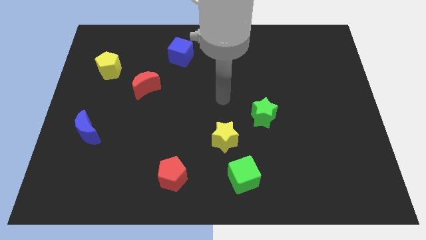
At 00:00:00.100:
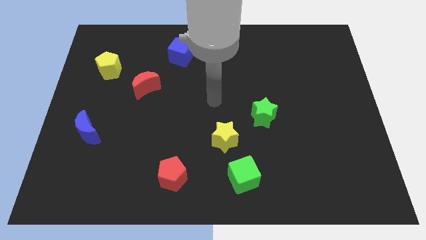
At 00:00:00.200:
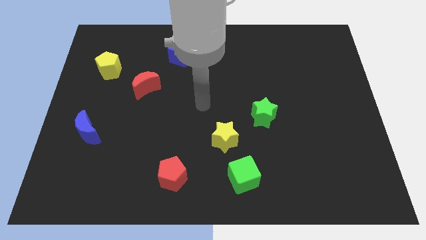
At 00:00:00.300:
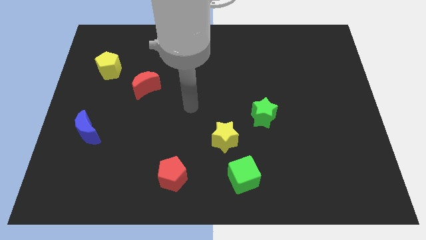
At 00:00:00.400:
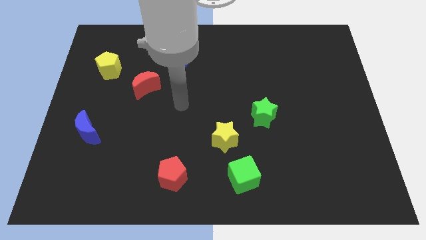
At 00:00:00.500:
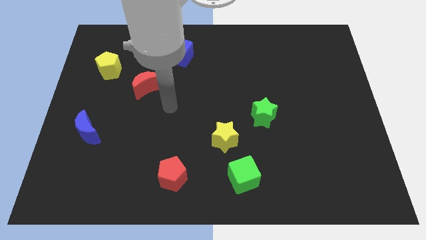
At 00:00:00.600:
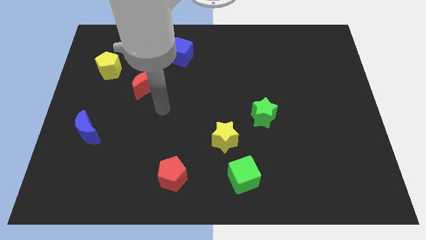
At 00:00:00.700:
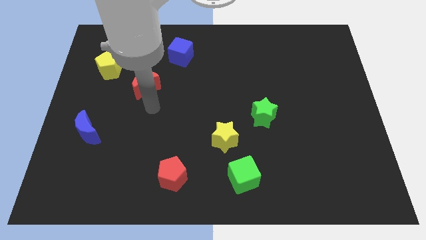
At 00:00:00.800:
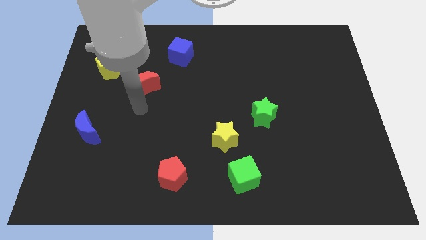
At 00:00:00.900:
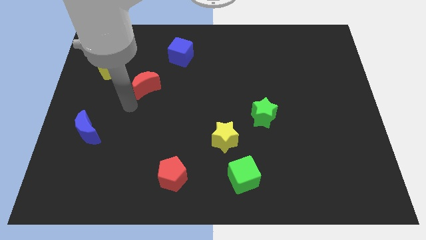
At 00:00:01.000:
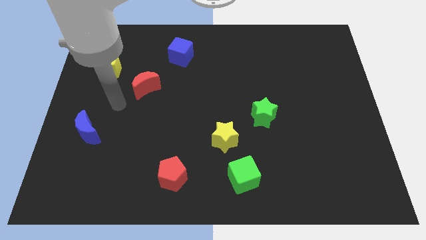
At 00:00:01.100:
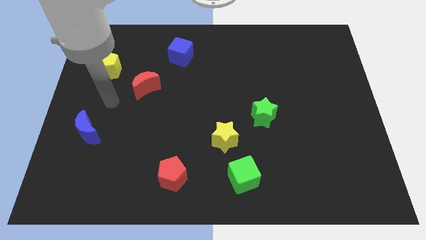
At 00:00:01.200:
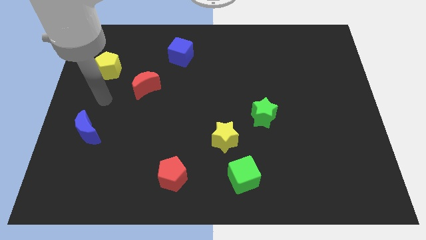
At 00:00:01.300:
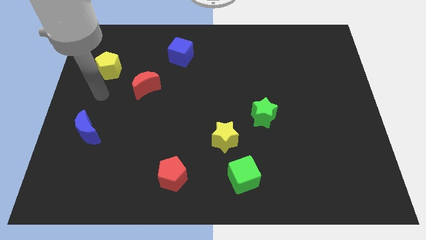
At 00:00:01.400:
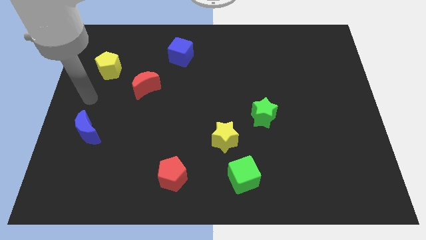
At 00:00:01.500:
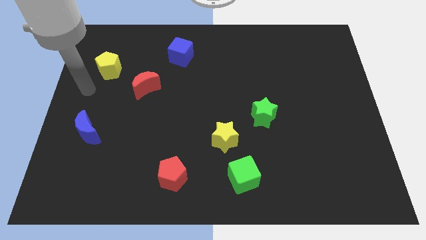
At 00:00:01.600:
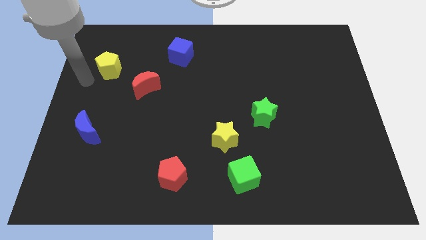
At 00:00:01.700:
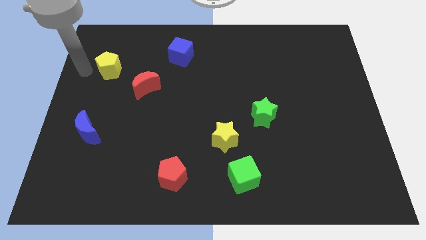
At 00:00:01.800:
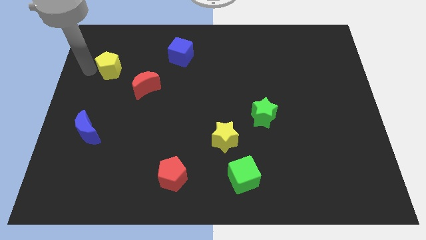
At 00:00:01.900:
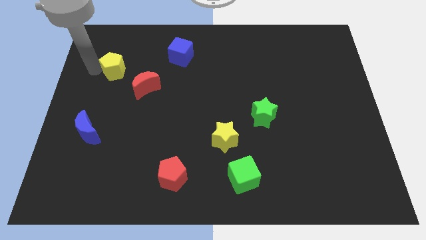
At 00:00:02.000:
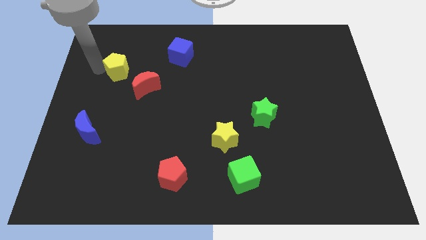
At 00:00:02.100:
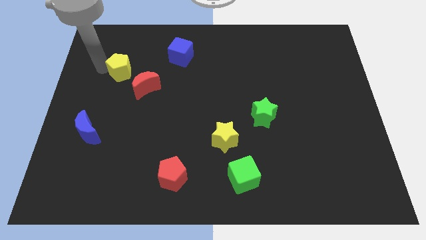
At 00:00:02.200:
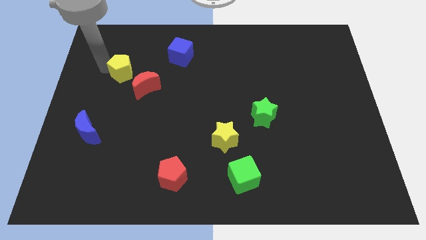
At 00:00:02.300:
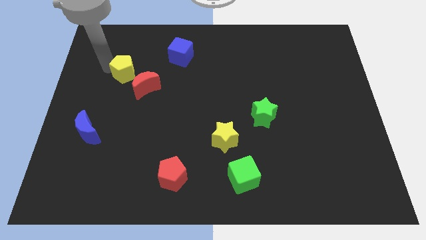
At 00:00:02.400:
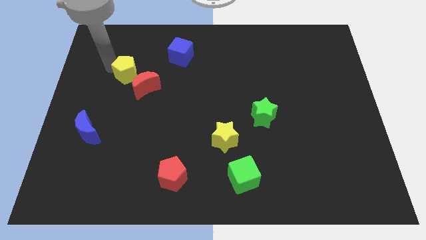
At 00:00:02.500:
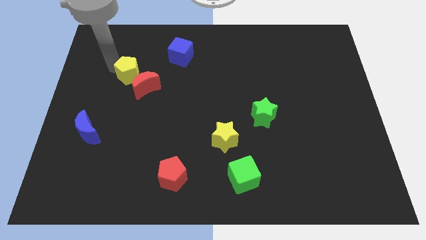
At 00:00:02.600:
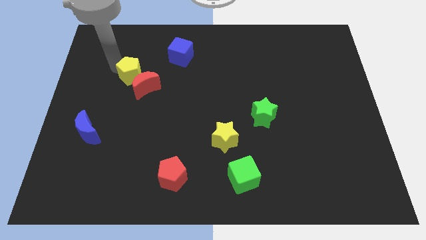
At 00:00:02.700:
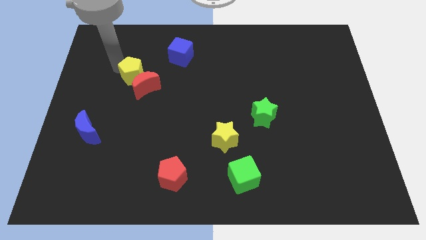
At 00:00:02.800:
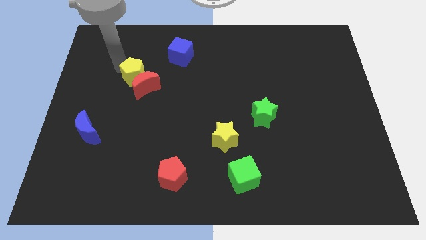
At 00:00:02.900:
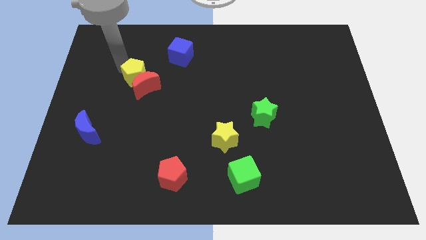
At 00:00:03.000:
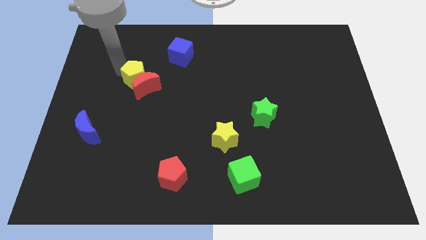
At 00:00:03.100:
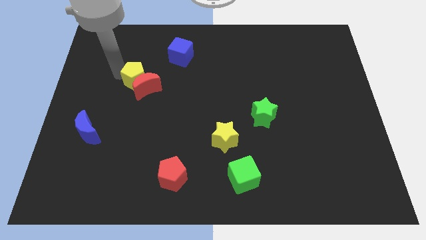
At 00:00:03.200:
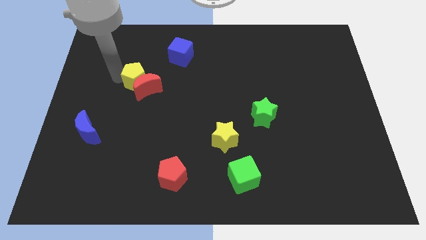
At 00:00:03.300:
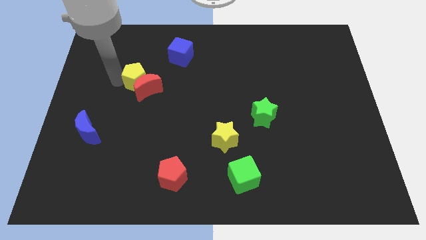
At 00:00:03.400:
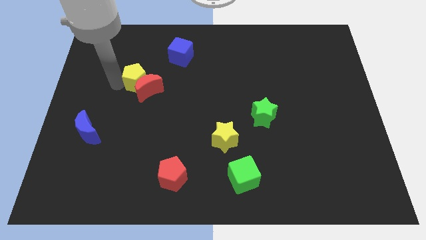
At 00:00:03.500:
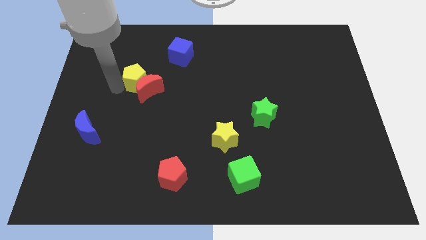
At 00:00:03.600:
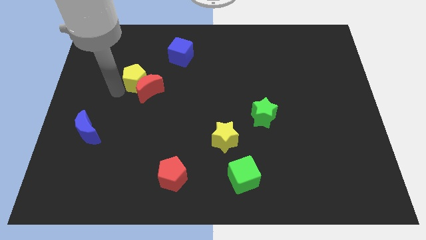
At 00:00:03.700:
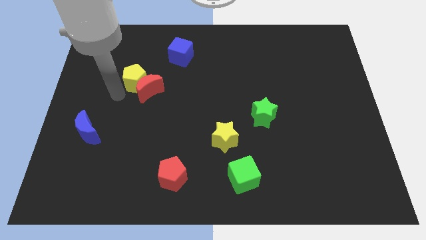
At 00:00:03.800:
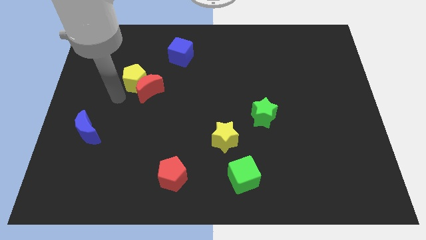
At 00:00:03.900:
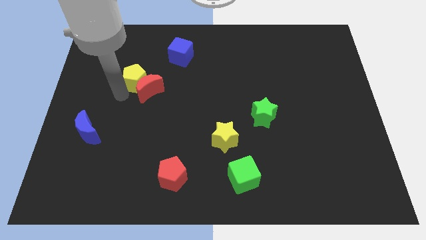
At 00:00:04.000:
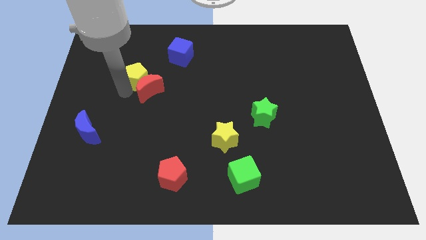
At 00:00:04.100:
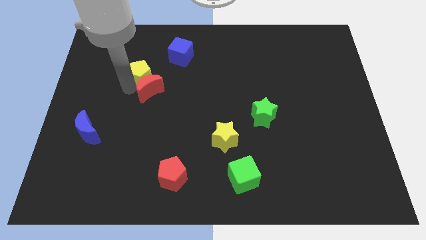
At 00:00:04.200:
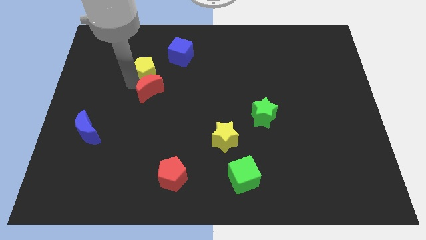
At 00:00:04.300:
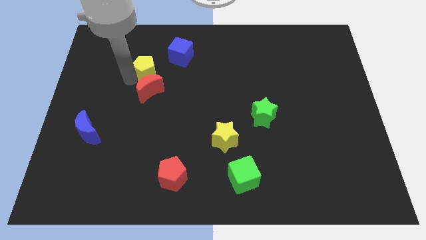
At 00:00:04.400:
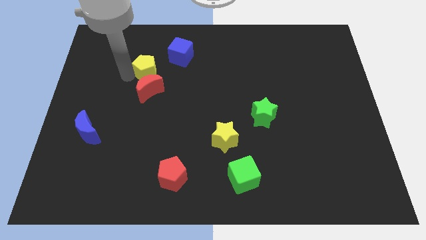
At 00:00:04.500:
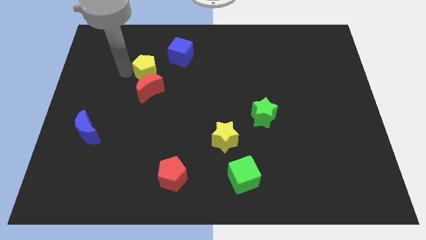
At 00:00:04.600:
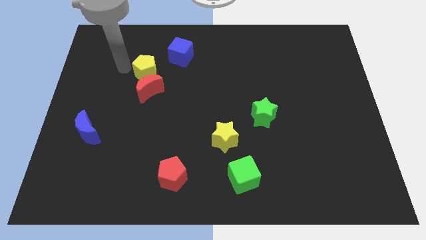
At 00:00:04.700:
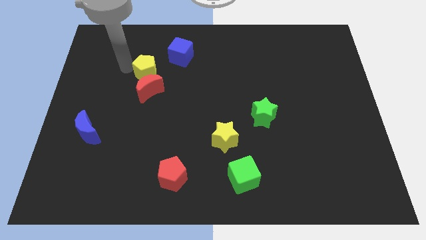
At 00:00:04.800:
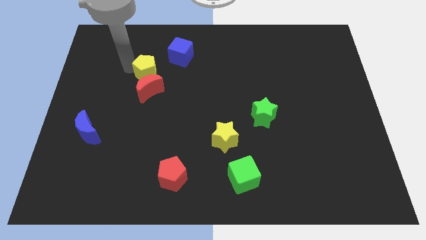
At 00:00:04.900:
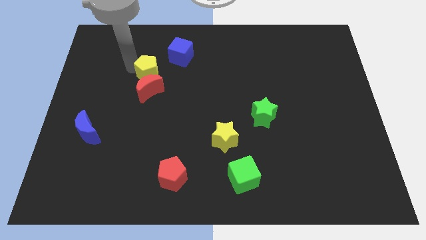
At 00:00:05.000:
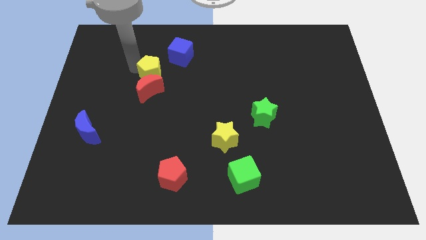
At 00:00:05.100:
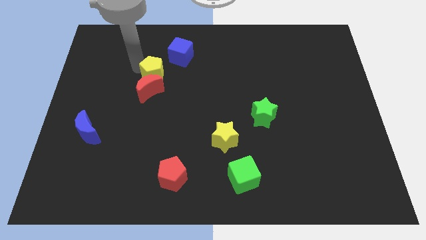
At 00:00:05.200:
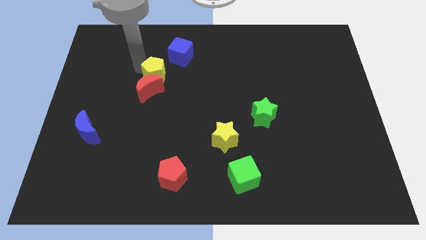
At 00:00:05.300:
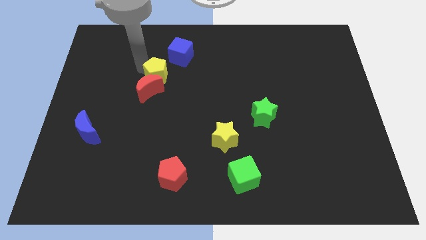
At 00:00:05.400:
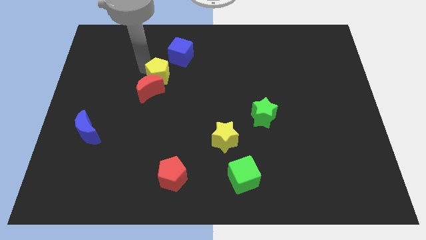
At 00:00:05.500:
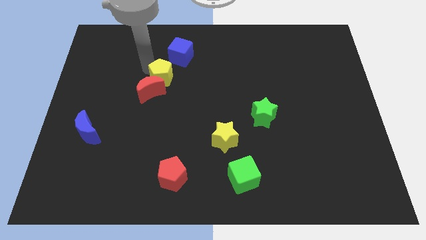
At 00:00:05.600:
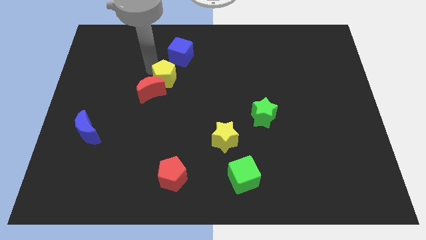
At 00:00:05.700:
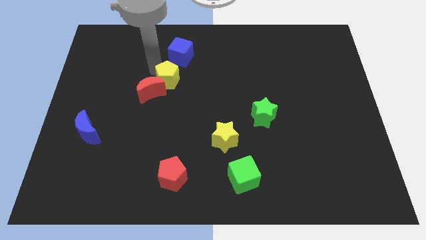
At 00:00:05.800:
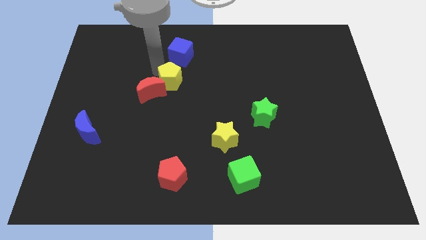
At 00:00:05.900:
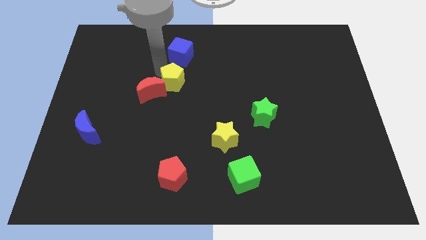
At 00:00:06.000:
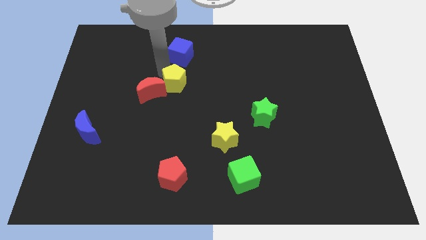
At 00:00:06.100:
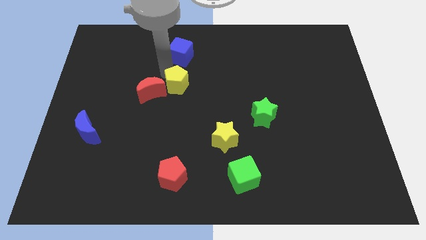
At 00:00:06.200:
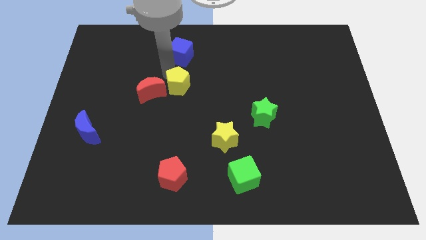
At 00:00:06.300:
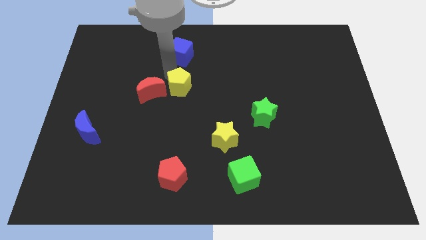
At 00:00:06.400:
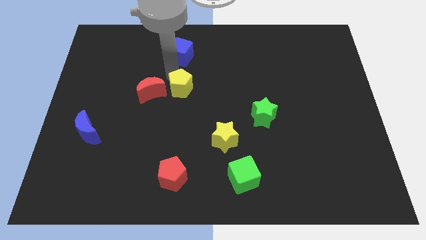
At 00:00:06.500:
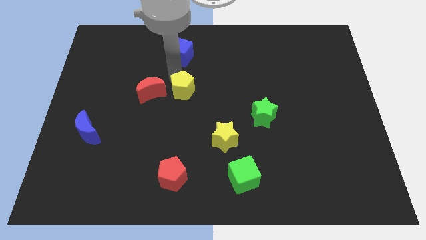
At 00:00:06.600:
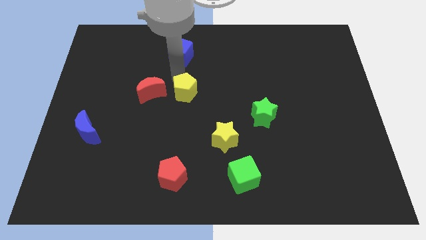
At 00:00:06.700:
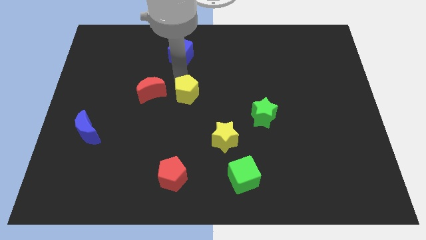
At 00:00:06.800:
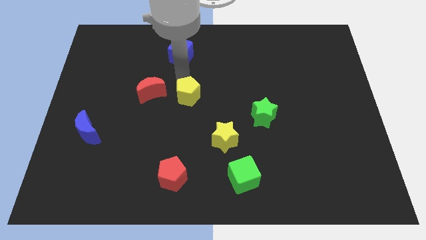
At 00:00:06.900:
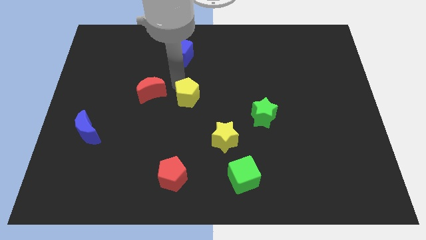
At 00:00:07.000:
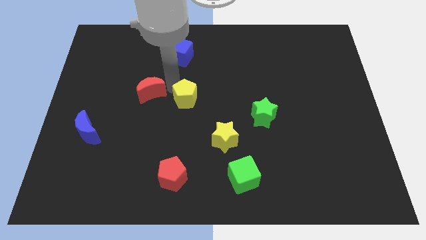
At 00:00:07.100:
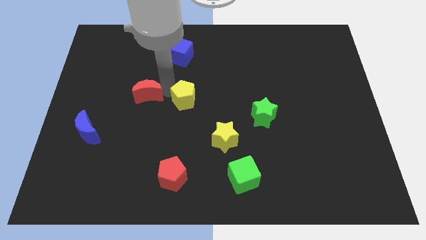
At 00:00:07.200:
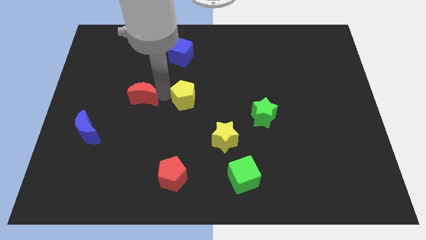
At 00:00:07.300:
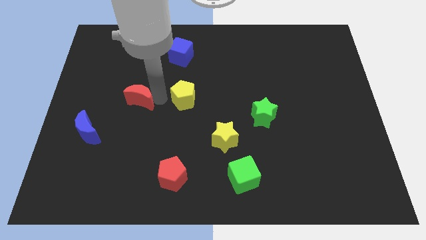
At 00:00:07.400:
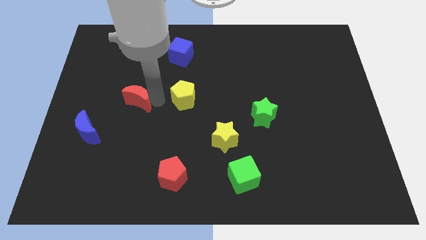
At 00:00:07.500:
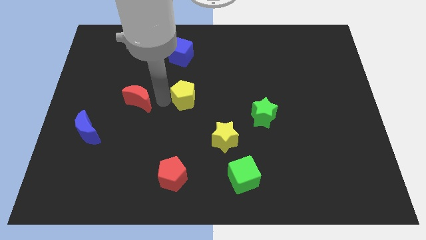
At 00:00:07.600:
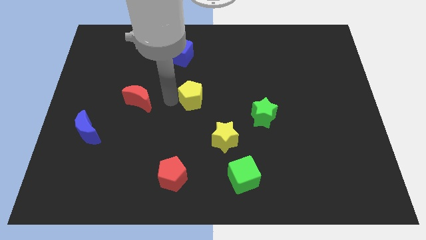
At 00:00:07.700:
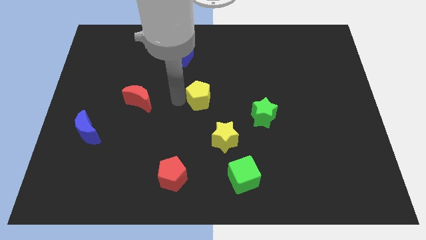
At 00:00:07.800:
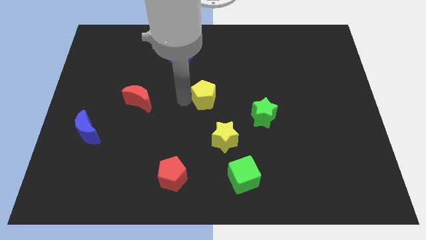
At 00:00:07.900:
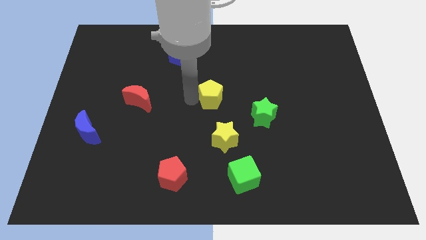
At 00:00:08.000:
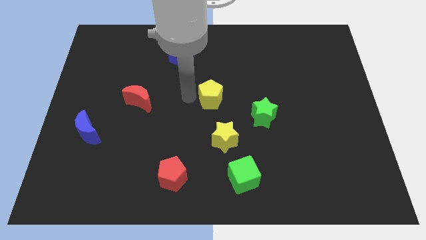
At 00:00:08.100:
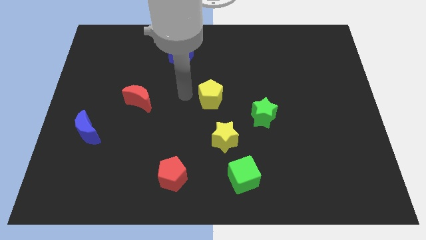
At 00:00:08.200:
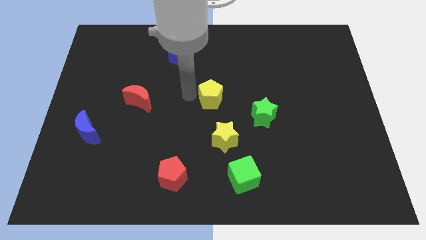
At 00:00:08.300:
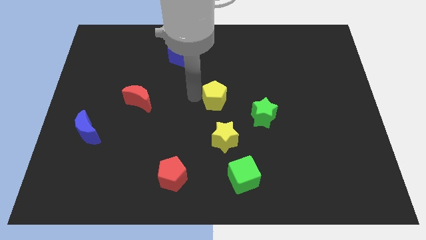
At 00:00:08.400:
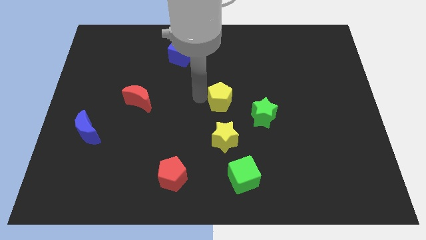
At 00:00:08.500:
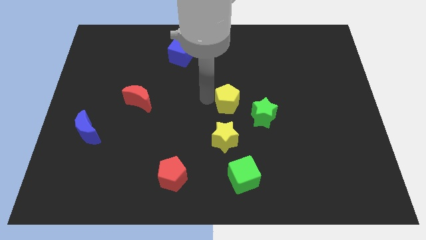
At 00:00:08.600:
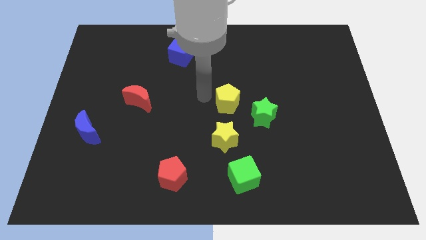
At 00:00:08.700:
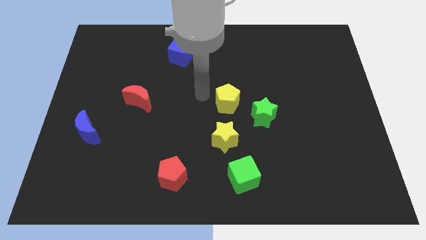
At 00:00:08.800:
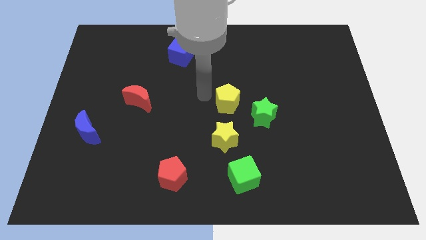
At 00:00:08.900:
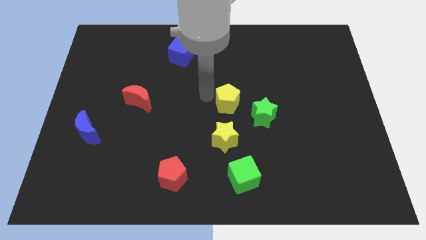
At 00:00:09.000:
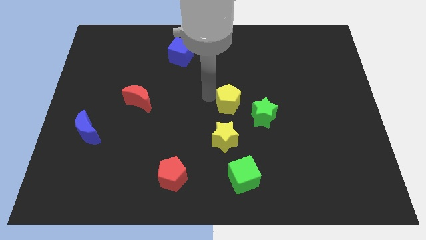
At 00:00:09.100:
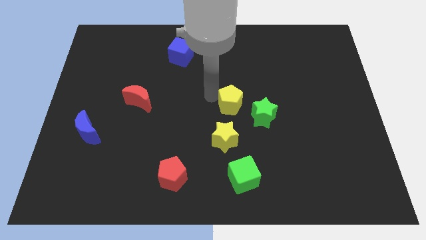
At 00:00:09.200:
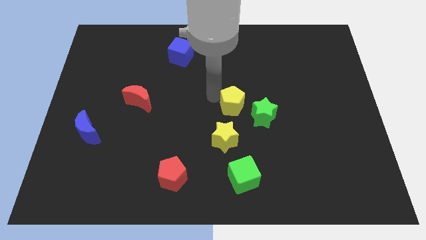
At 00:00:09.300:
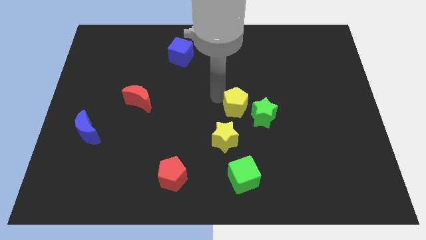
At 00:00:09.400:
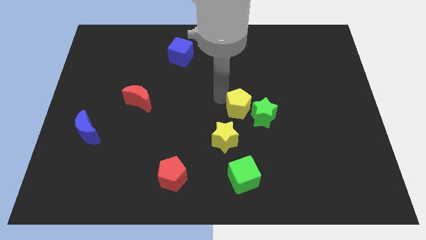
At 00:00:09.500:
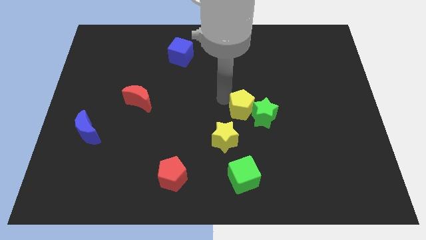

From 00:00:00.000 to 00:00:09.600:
put the yellow pentagon next to the green star
